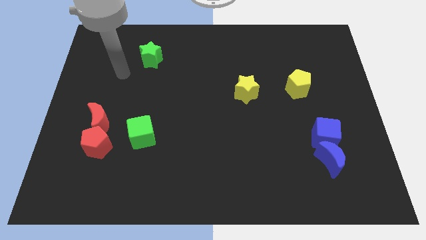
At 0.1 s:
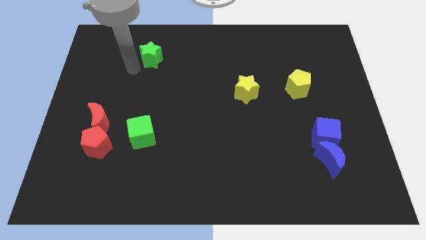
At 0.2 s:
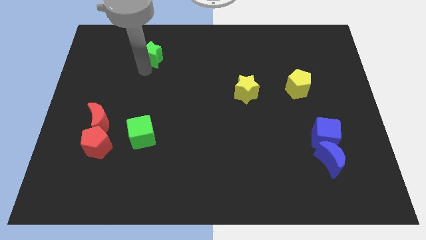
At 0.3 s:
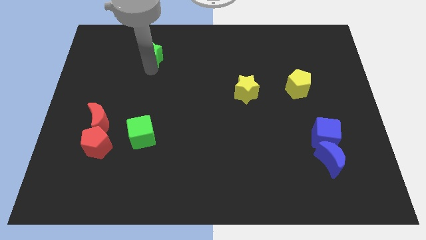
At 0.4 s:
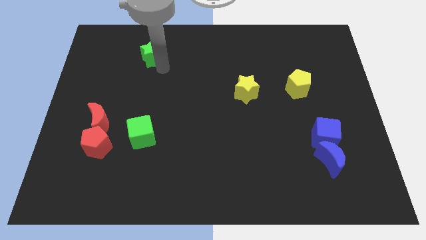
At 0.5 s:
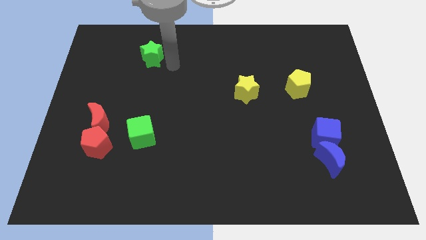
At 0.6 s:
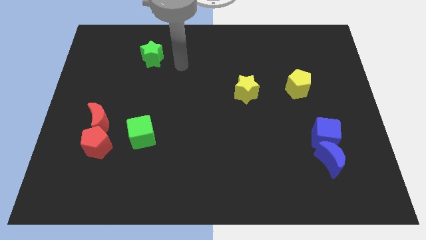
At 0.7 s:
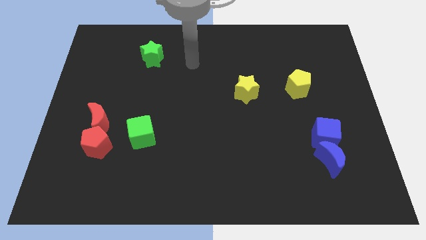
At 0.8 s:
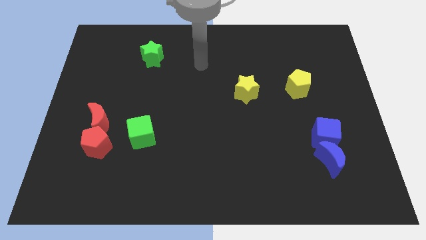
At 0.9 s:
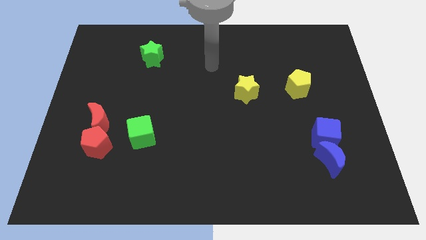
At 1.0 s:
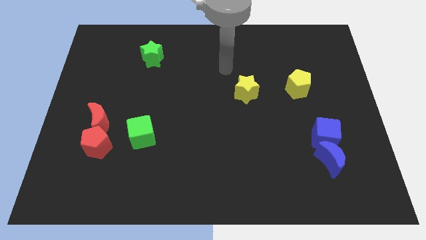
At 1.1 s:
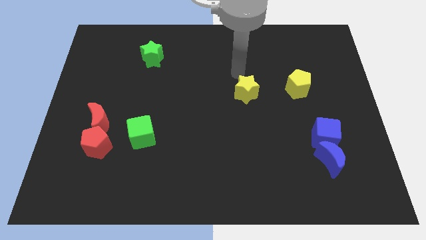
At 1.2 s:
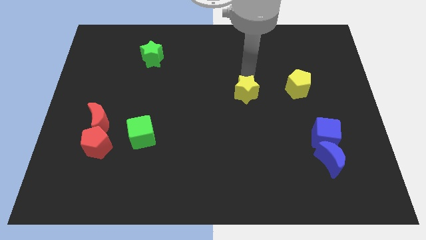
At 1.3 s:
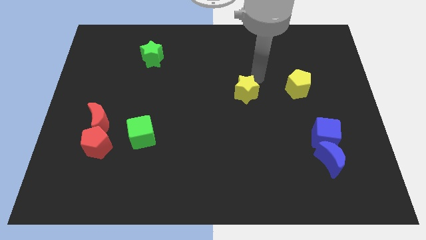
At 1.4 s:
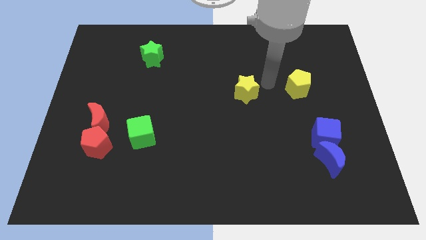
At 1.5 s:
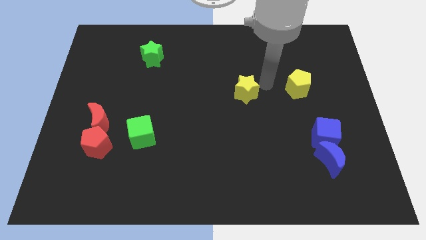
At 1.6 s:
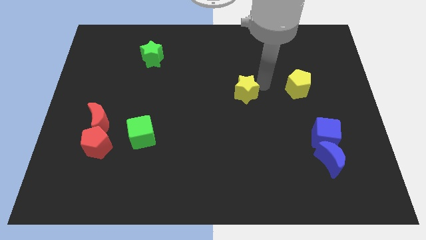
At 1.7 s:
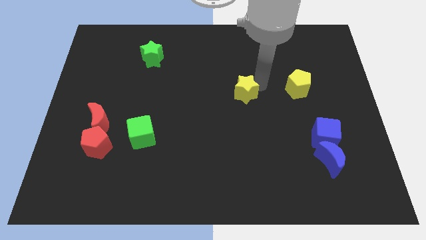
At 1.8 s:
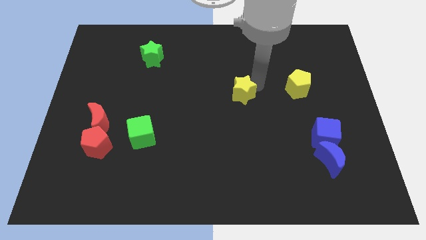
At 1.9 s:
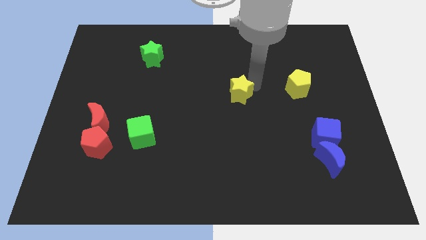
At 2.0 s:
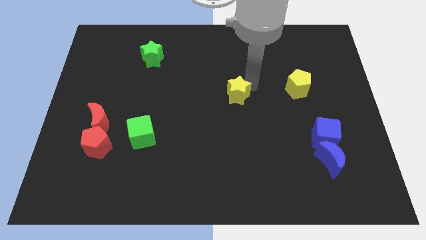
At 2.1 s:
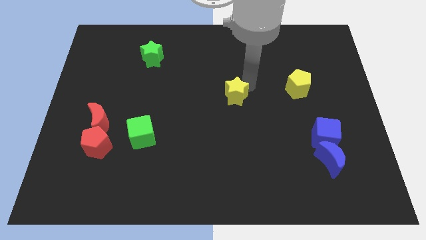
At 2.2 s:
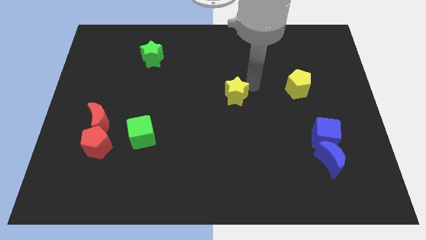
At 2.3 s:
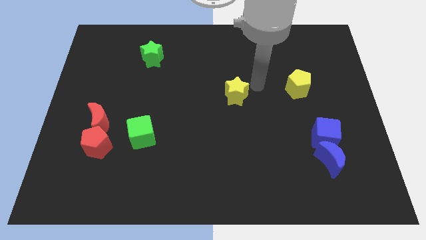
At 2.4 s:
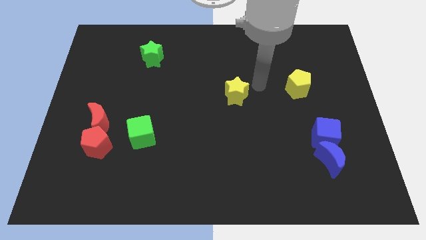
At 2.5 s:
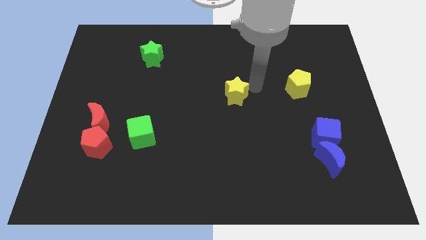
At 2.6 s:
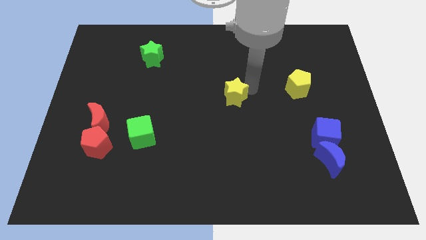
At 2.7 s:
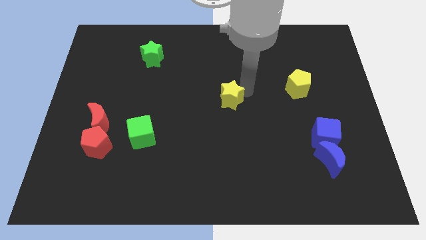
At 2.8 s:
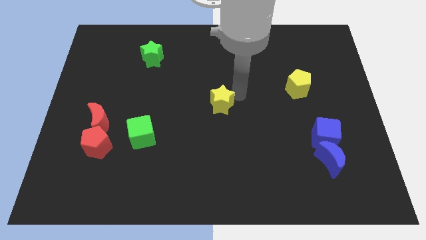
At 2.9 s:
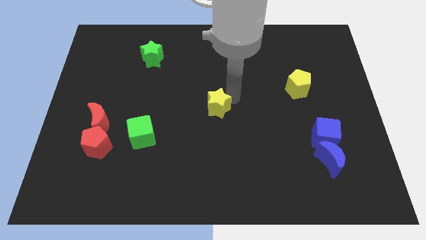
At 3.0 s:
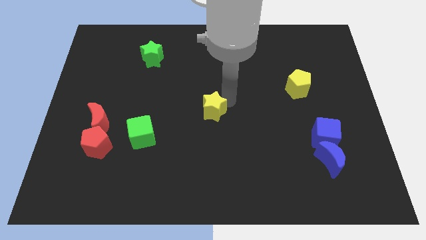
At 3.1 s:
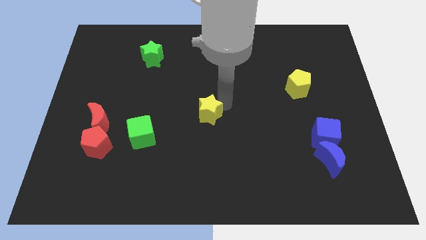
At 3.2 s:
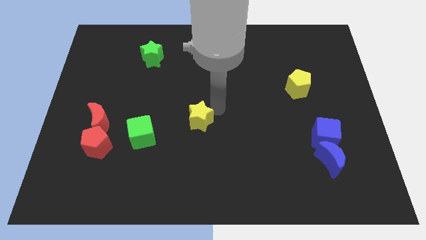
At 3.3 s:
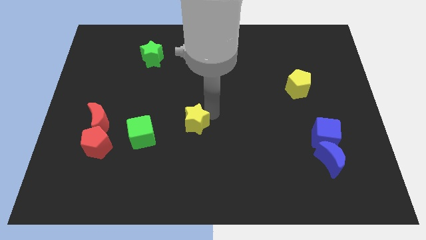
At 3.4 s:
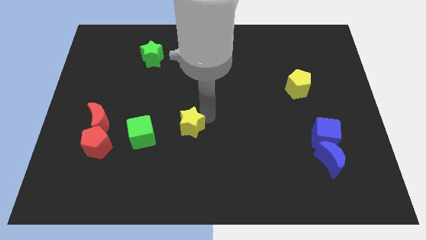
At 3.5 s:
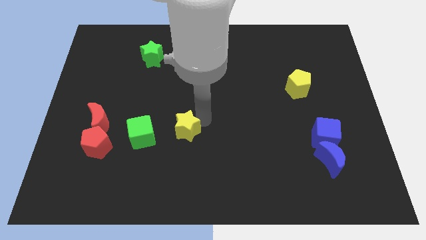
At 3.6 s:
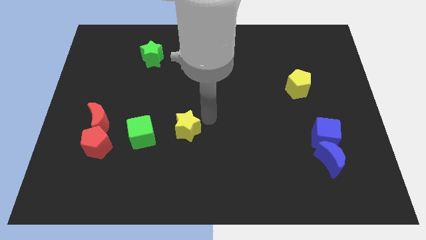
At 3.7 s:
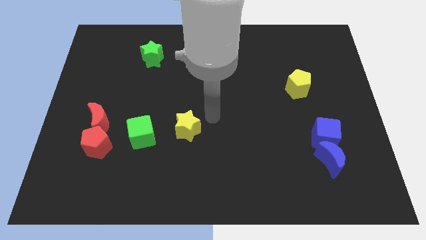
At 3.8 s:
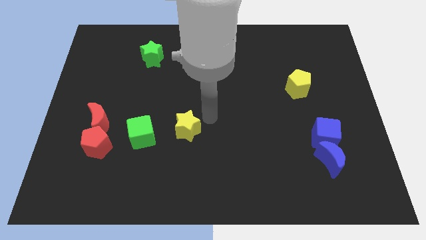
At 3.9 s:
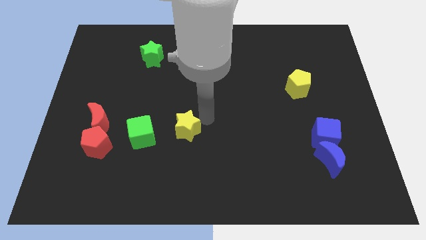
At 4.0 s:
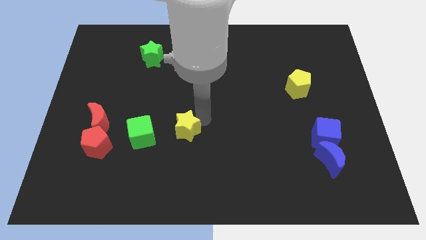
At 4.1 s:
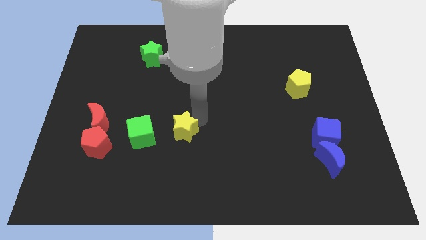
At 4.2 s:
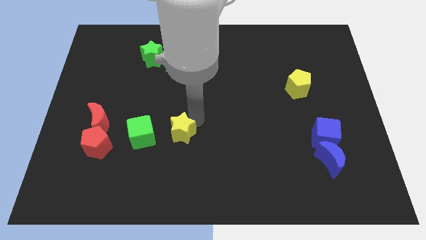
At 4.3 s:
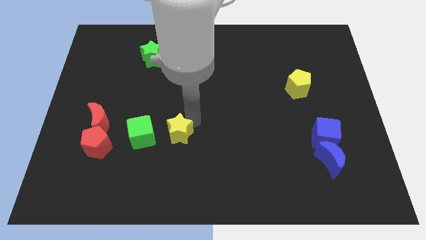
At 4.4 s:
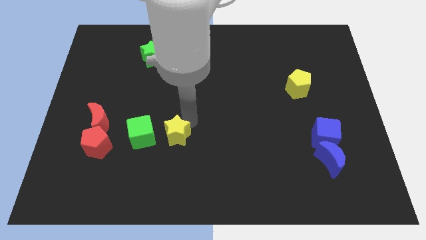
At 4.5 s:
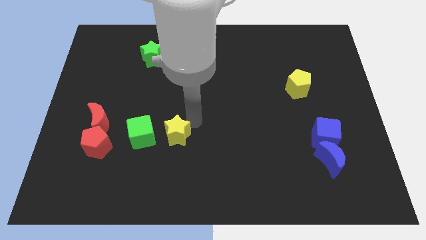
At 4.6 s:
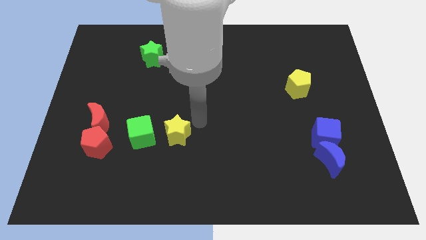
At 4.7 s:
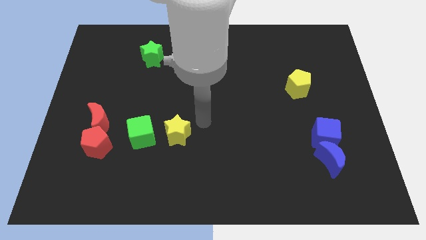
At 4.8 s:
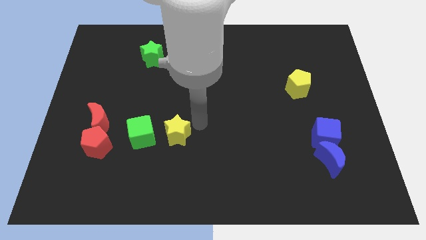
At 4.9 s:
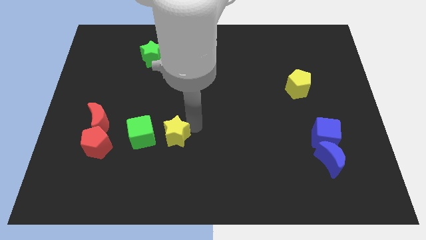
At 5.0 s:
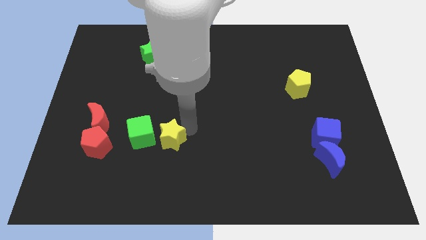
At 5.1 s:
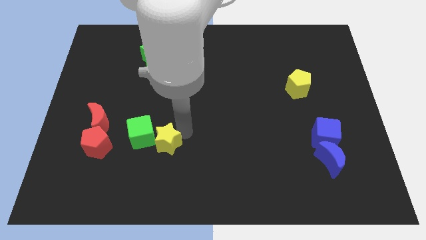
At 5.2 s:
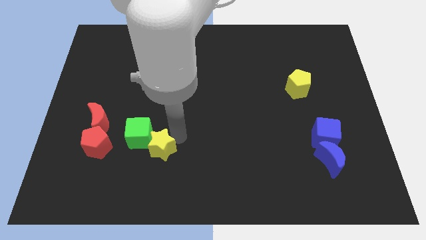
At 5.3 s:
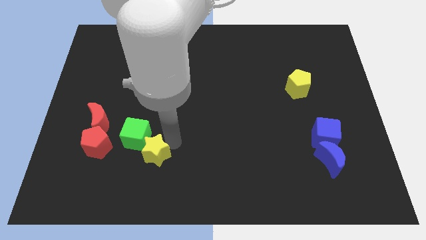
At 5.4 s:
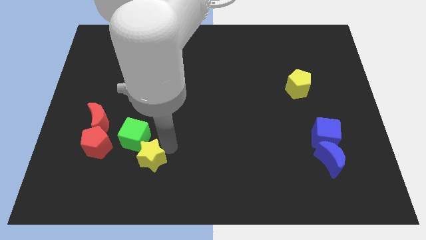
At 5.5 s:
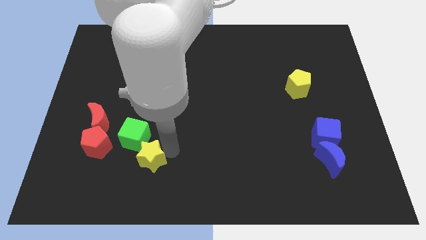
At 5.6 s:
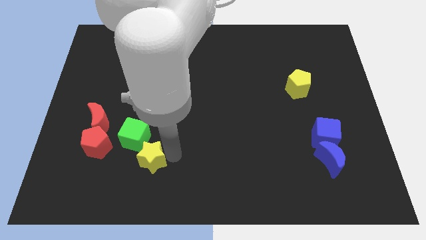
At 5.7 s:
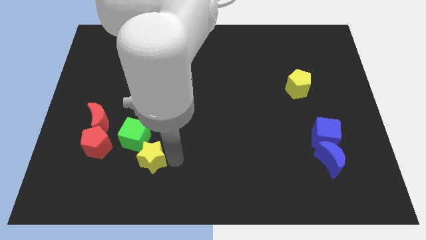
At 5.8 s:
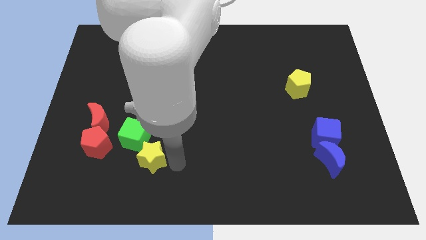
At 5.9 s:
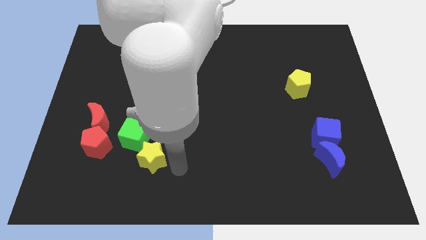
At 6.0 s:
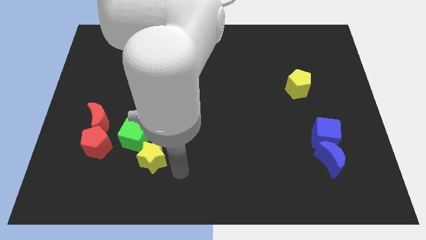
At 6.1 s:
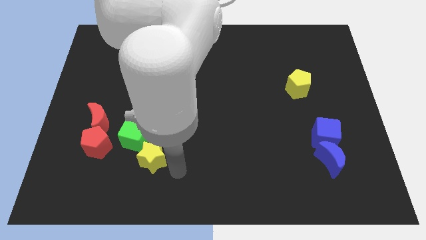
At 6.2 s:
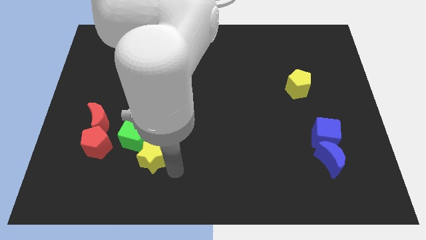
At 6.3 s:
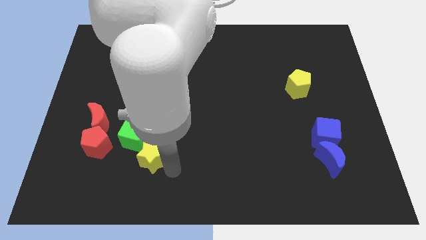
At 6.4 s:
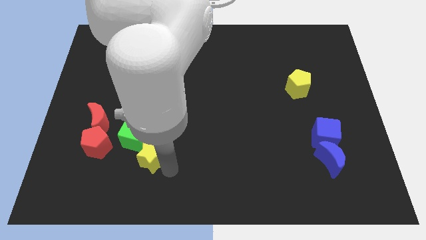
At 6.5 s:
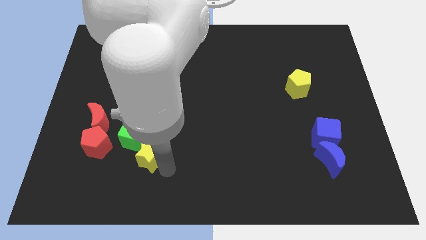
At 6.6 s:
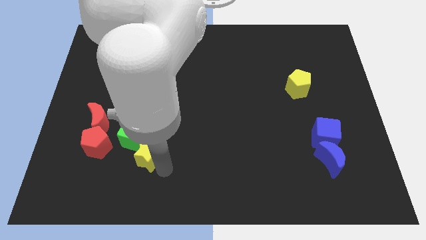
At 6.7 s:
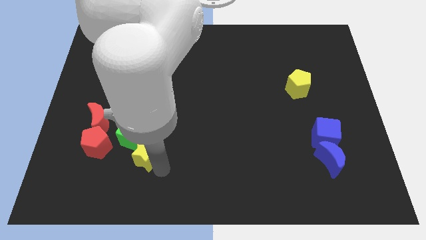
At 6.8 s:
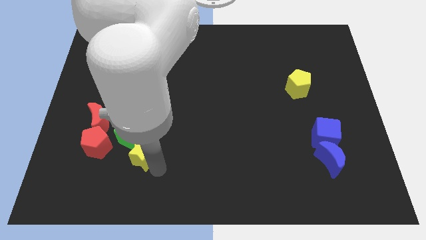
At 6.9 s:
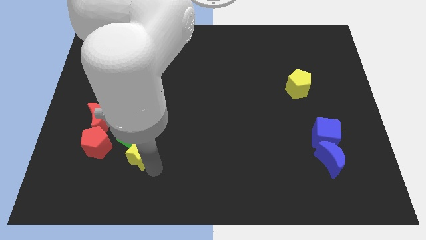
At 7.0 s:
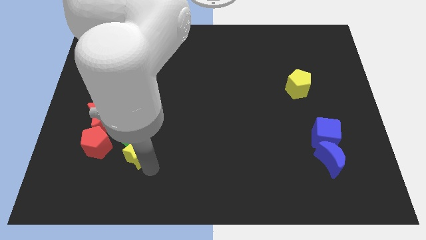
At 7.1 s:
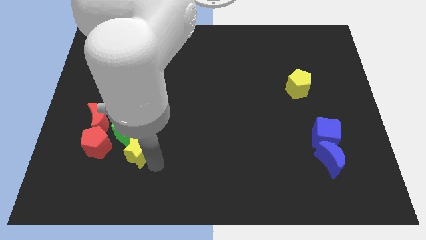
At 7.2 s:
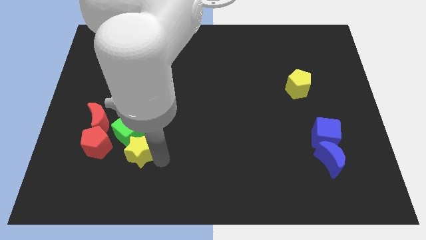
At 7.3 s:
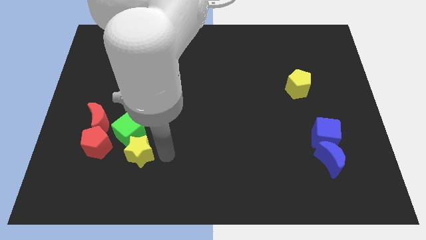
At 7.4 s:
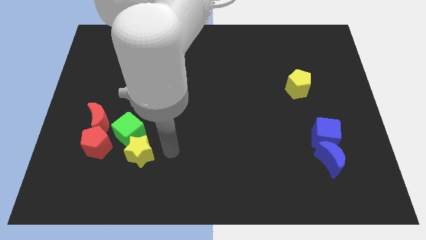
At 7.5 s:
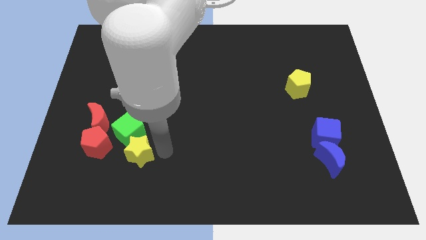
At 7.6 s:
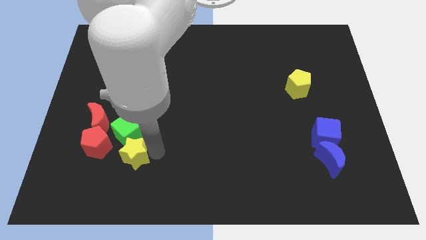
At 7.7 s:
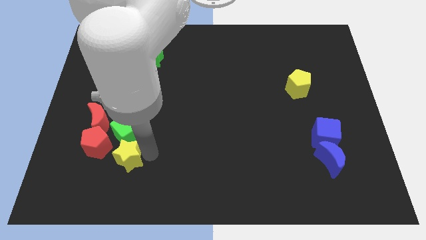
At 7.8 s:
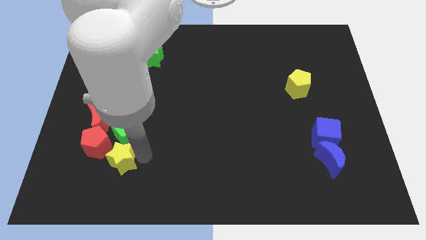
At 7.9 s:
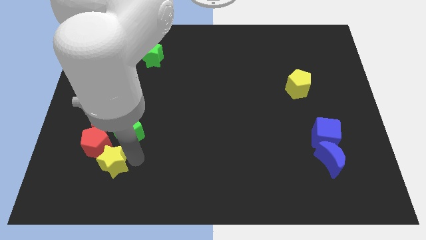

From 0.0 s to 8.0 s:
put the yellow star to the bottom of the red moon
